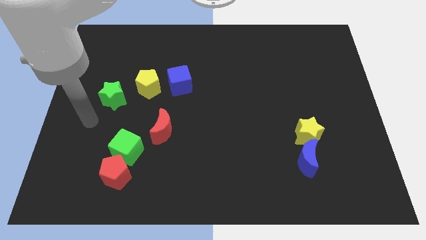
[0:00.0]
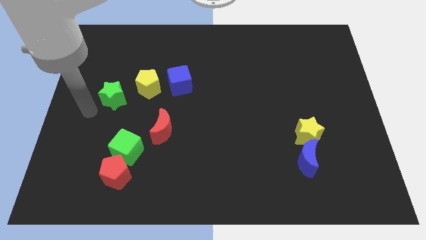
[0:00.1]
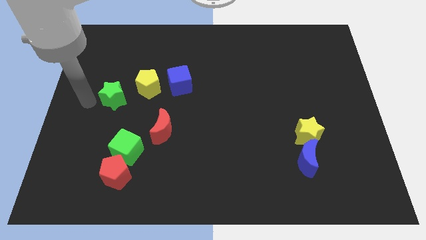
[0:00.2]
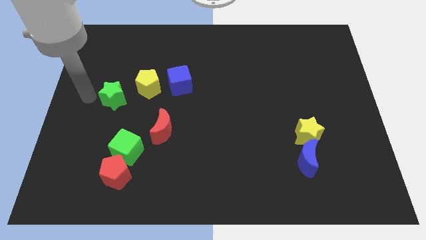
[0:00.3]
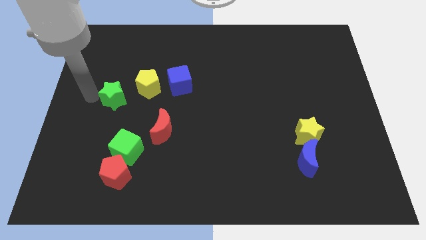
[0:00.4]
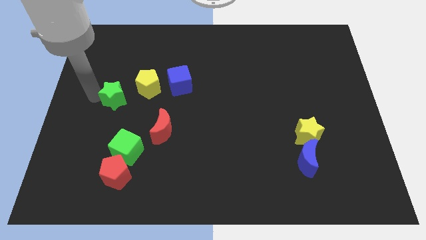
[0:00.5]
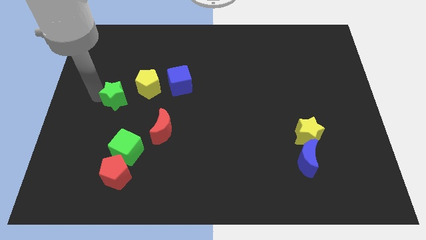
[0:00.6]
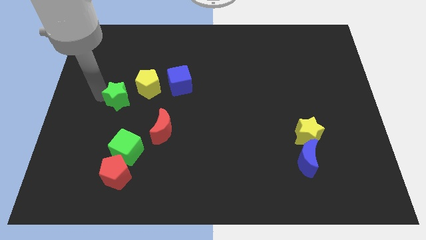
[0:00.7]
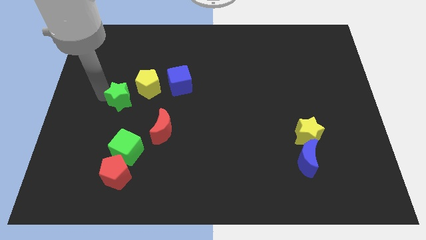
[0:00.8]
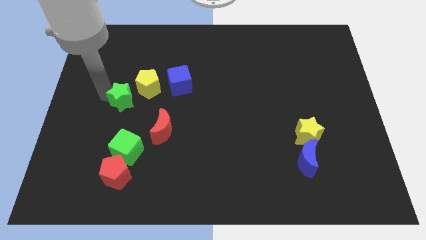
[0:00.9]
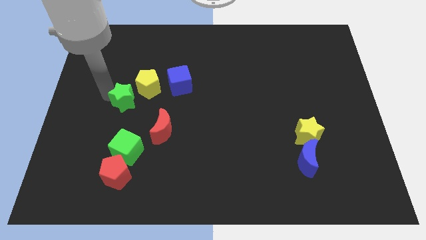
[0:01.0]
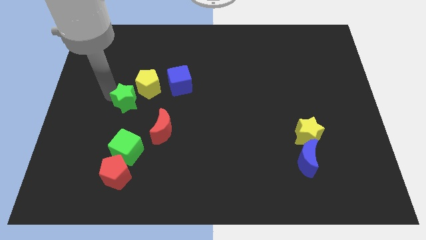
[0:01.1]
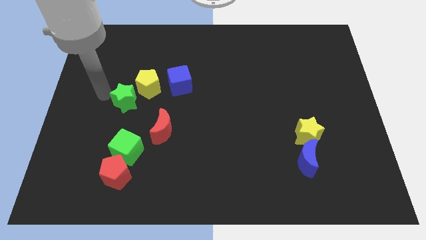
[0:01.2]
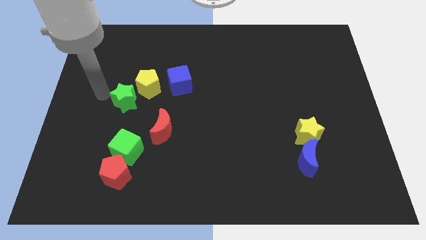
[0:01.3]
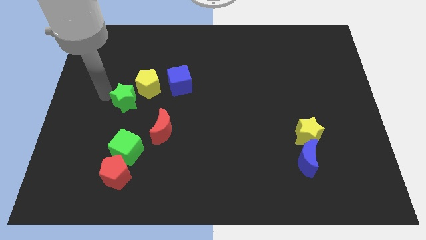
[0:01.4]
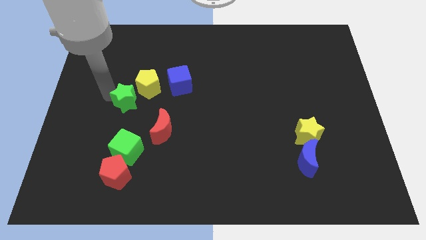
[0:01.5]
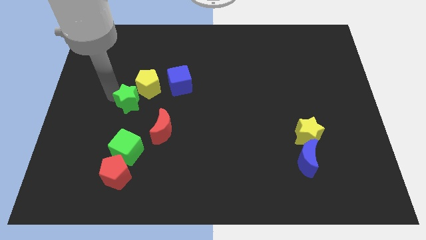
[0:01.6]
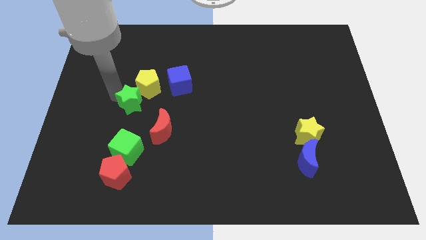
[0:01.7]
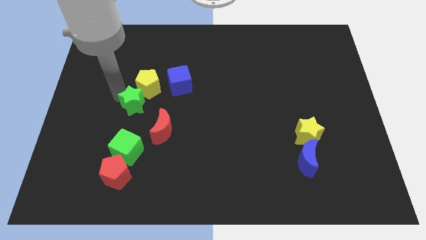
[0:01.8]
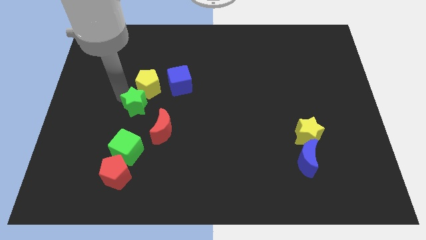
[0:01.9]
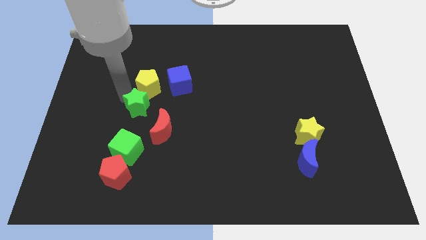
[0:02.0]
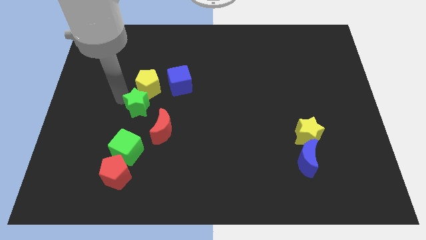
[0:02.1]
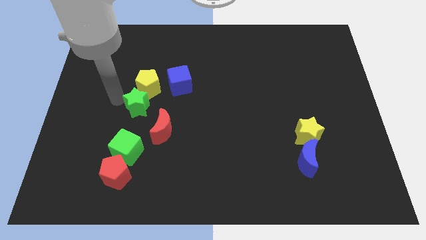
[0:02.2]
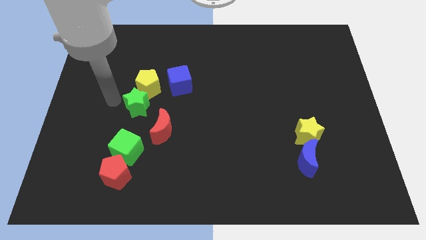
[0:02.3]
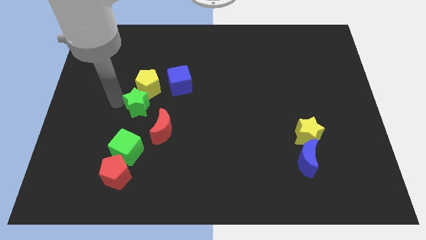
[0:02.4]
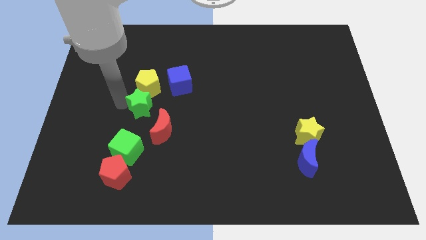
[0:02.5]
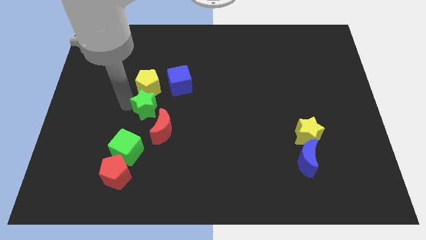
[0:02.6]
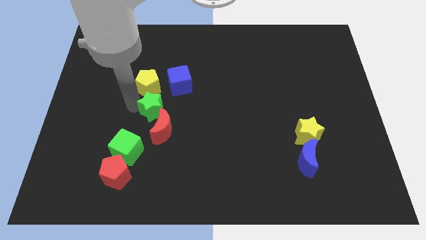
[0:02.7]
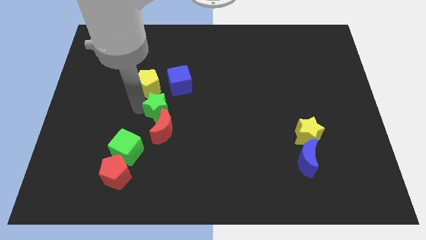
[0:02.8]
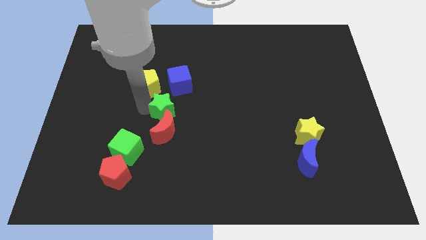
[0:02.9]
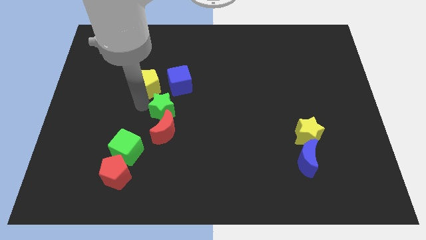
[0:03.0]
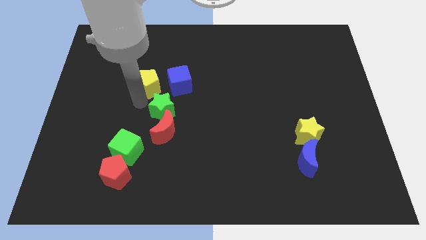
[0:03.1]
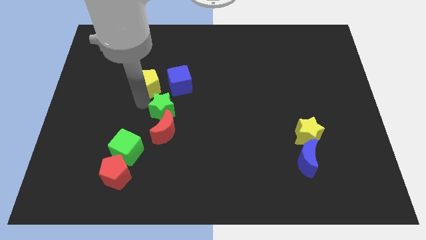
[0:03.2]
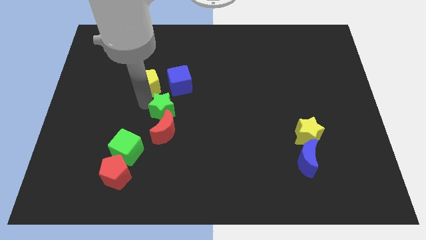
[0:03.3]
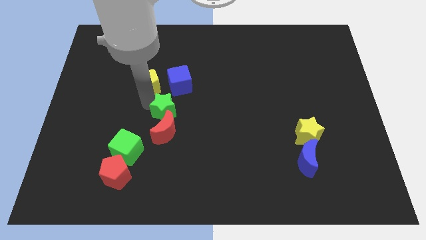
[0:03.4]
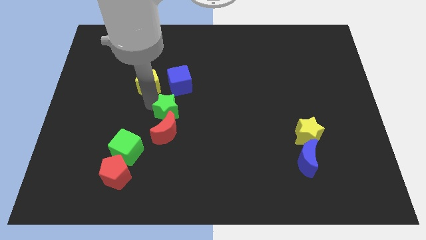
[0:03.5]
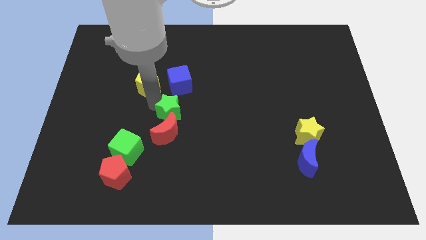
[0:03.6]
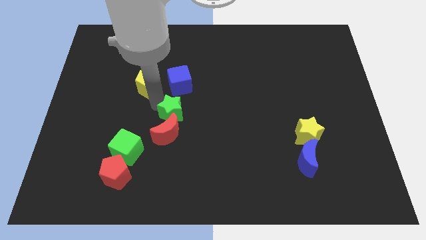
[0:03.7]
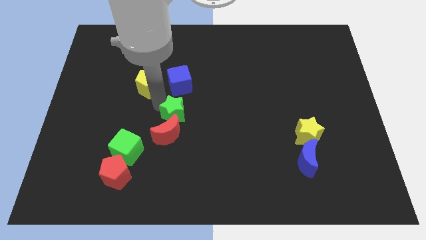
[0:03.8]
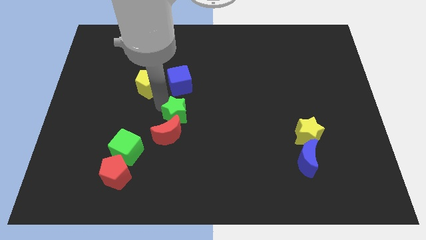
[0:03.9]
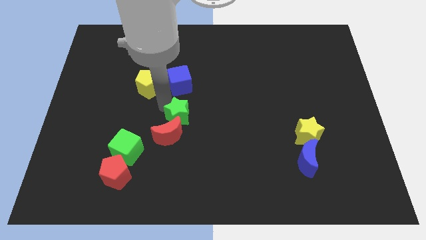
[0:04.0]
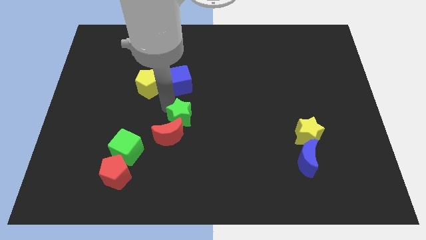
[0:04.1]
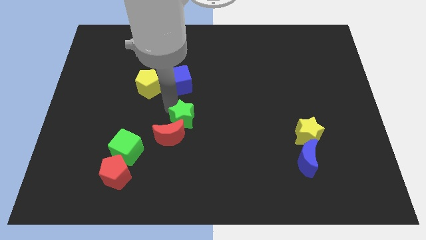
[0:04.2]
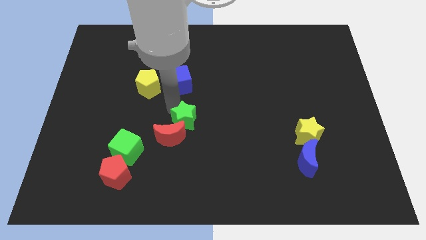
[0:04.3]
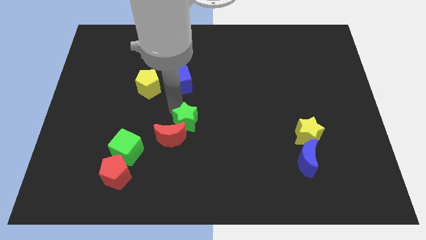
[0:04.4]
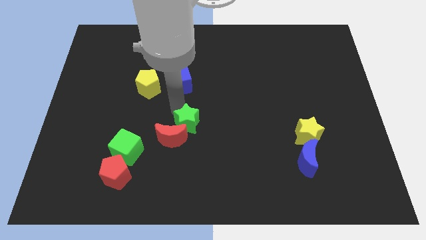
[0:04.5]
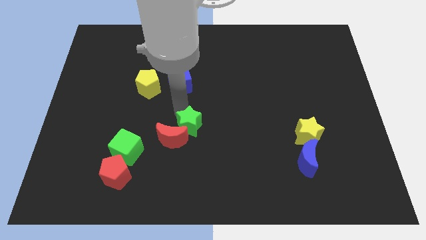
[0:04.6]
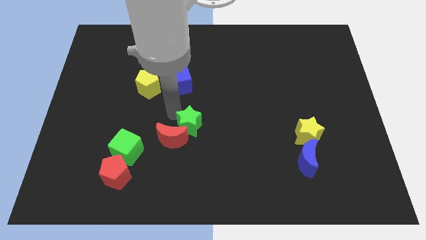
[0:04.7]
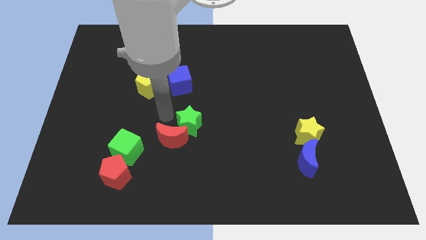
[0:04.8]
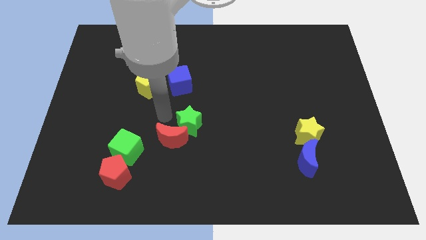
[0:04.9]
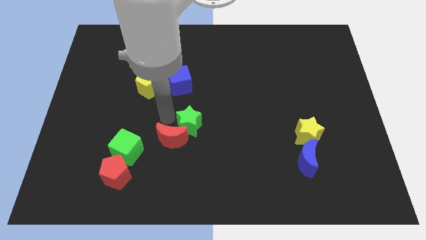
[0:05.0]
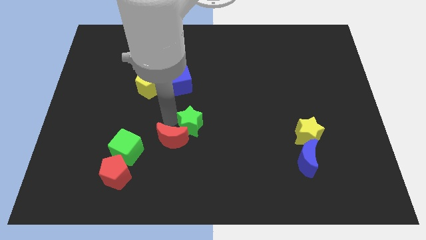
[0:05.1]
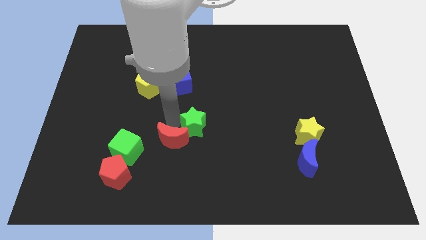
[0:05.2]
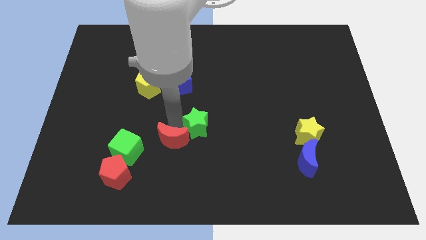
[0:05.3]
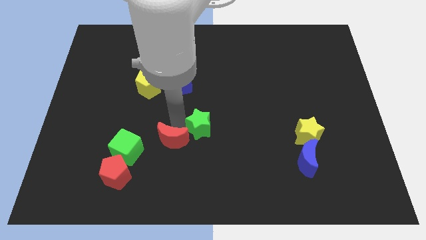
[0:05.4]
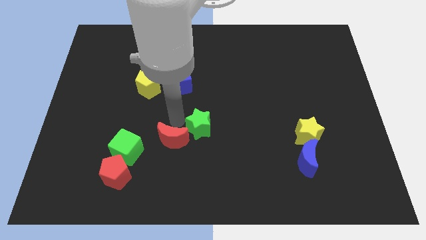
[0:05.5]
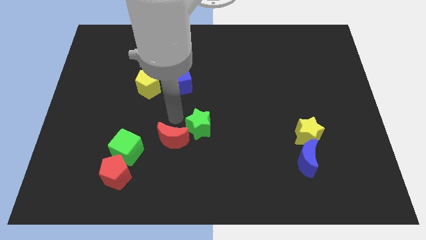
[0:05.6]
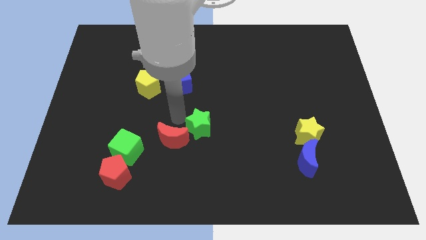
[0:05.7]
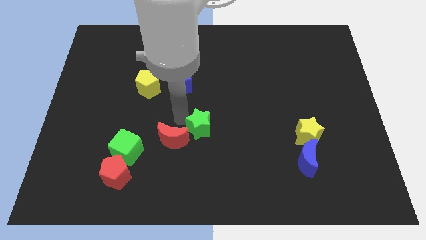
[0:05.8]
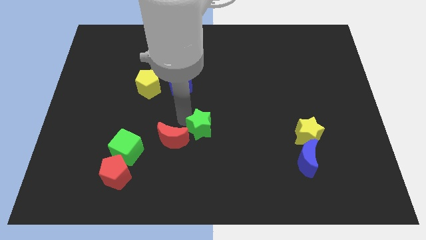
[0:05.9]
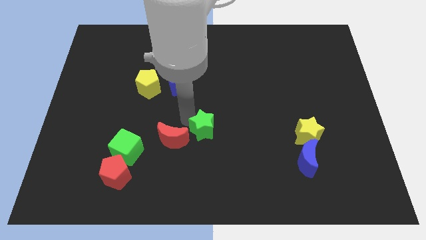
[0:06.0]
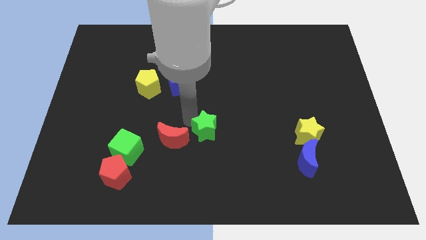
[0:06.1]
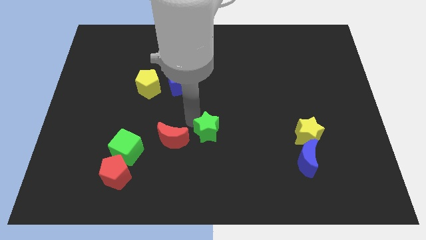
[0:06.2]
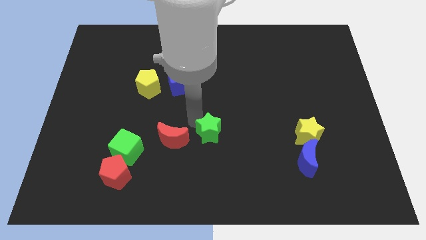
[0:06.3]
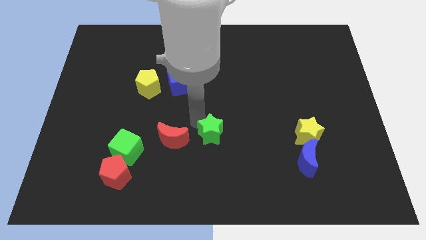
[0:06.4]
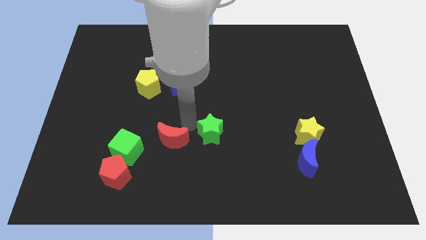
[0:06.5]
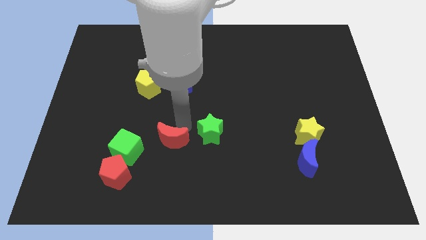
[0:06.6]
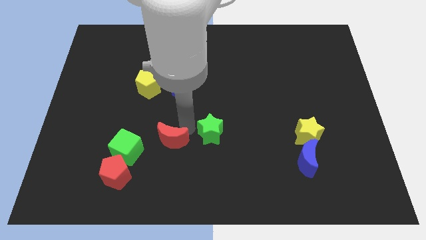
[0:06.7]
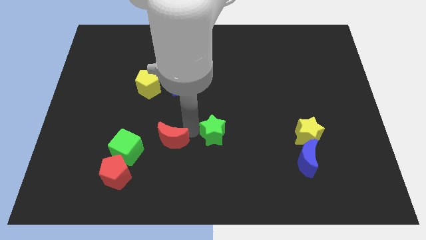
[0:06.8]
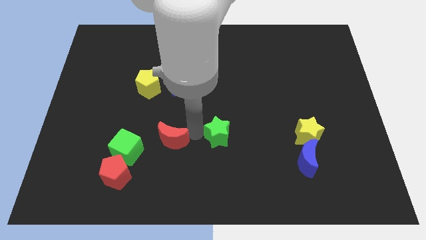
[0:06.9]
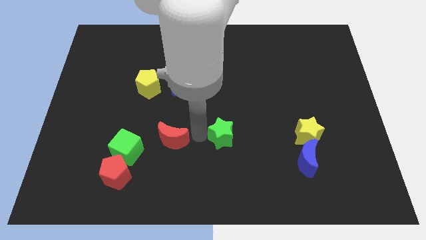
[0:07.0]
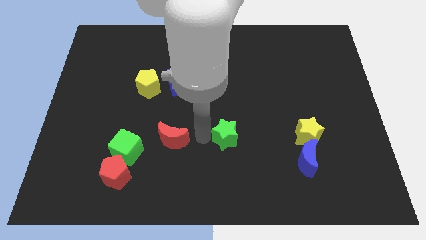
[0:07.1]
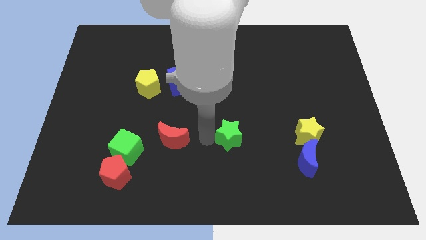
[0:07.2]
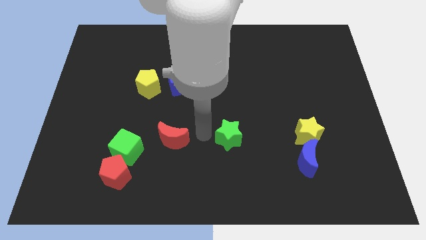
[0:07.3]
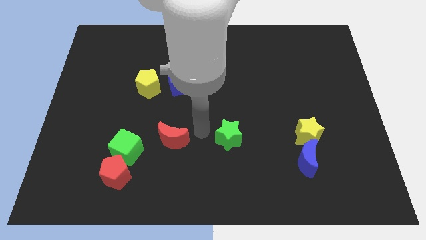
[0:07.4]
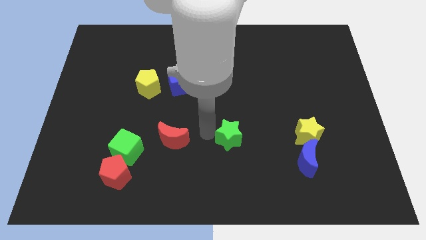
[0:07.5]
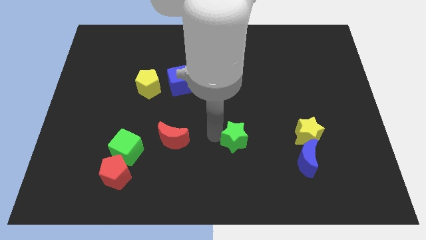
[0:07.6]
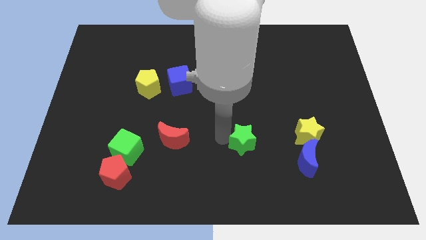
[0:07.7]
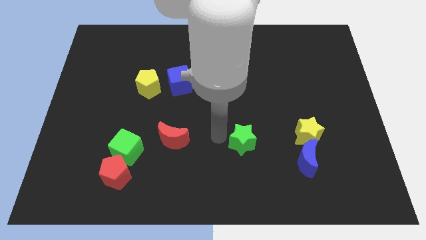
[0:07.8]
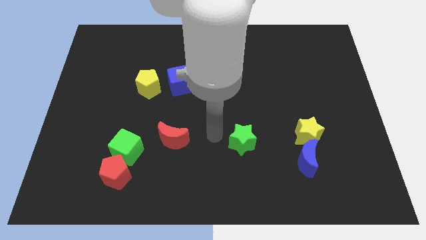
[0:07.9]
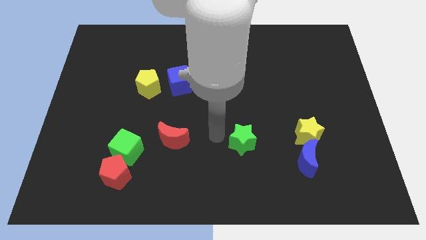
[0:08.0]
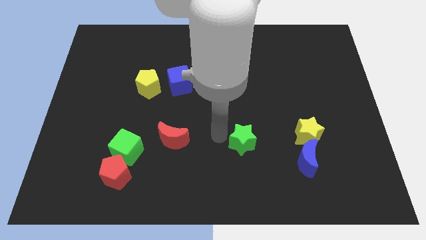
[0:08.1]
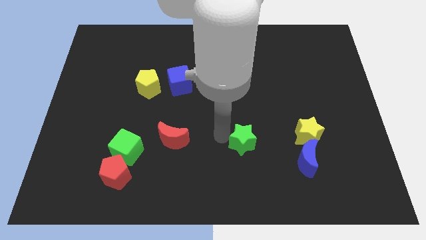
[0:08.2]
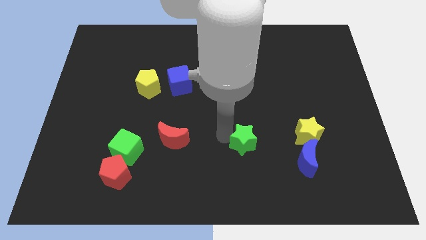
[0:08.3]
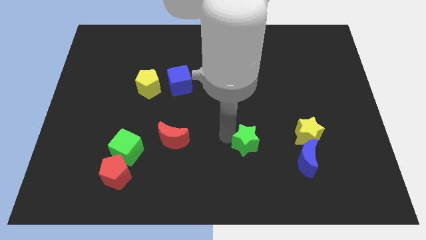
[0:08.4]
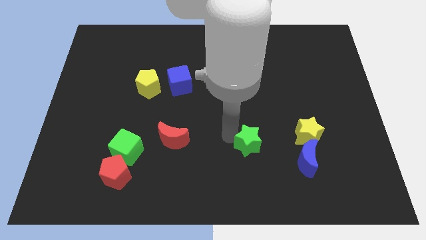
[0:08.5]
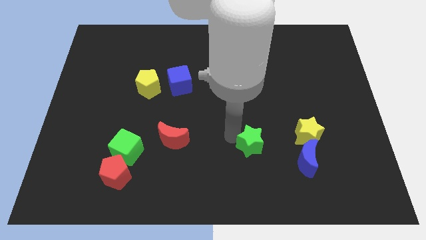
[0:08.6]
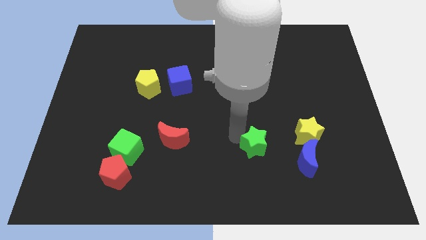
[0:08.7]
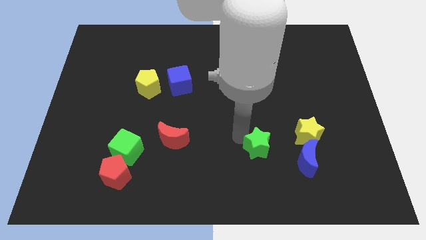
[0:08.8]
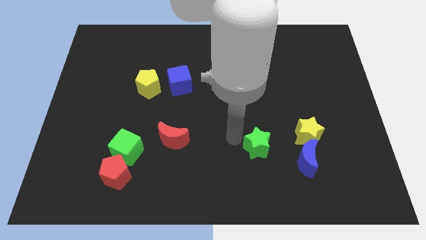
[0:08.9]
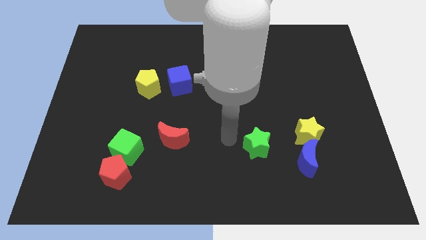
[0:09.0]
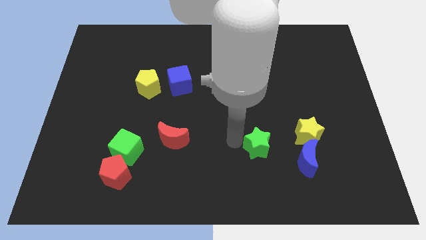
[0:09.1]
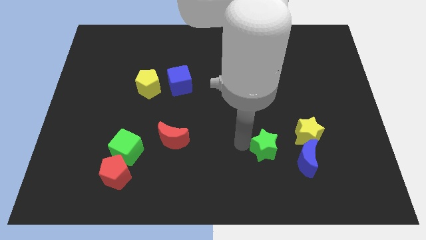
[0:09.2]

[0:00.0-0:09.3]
slide the green star to the bottom left side of the yellow star
